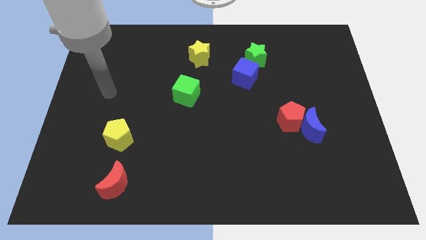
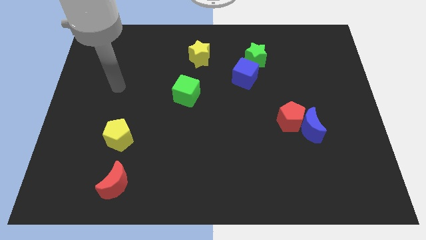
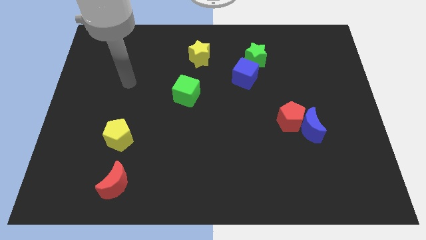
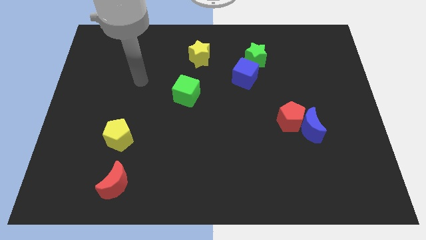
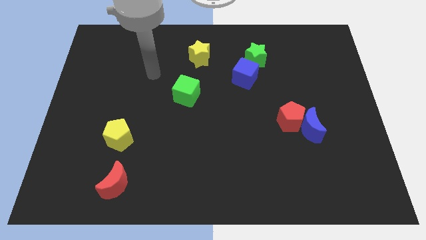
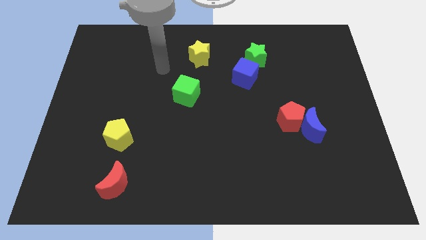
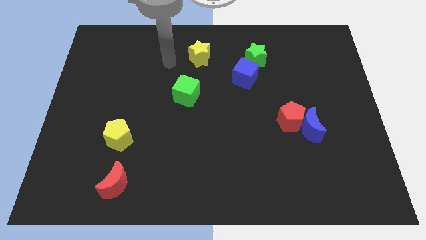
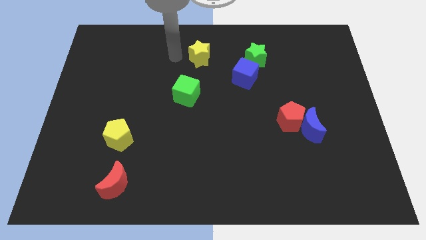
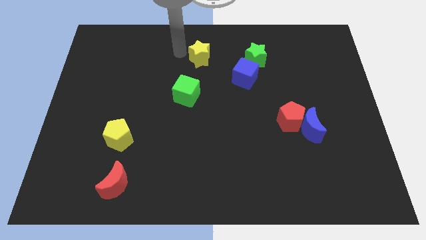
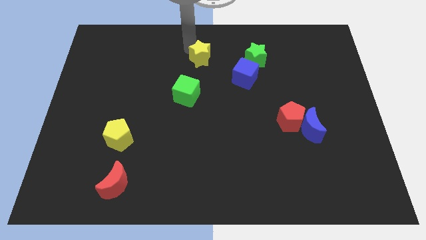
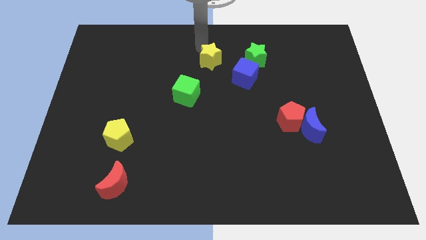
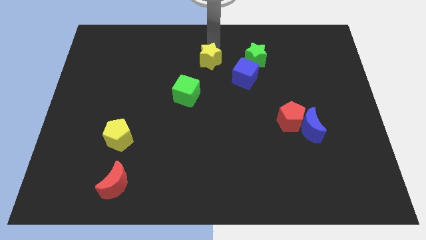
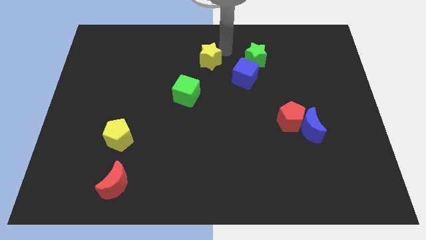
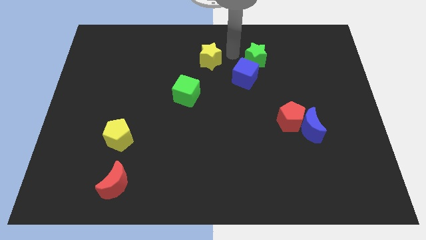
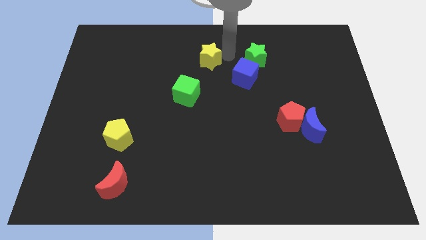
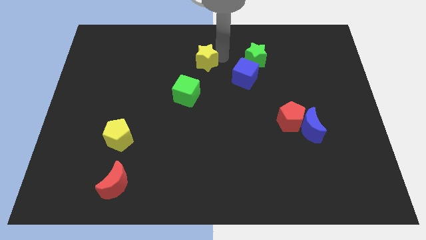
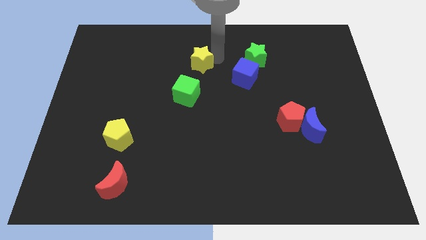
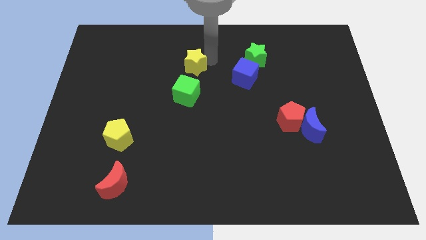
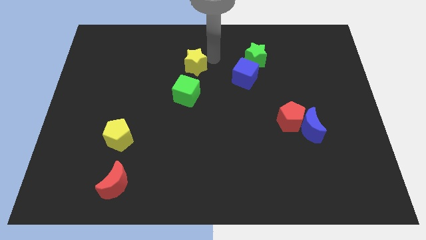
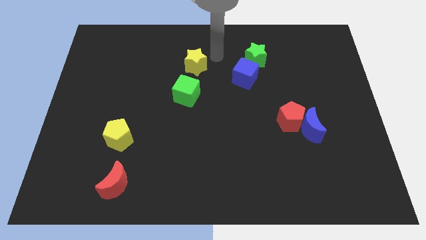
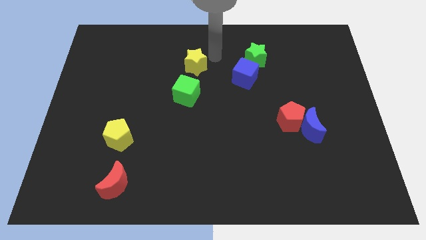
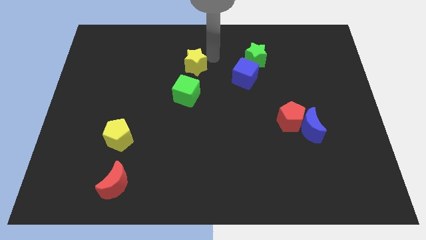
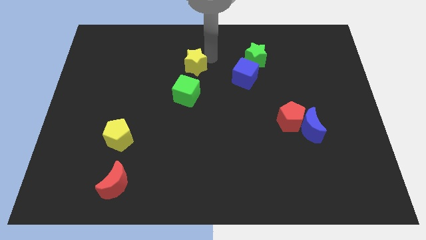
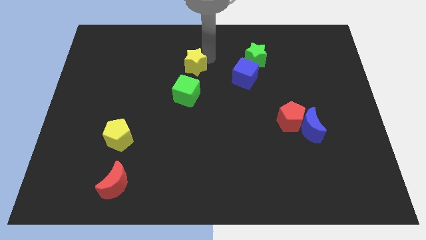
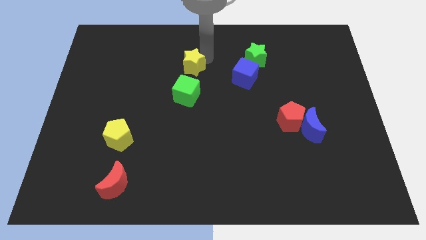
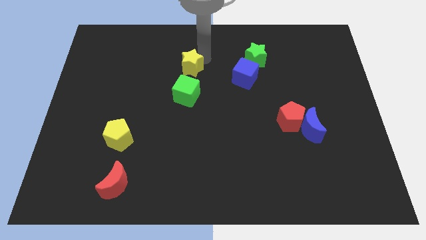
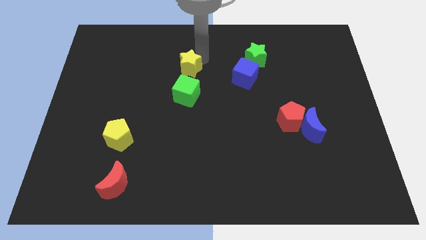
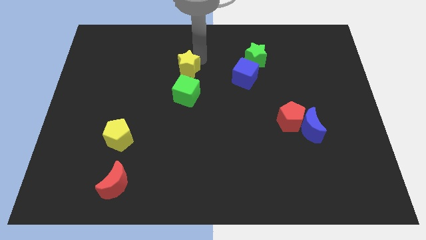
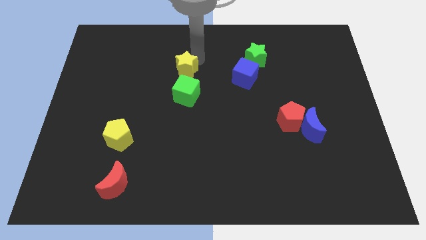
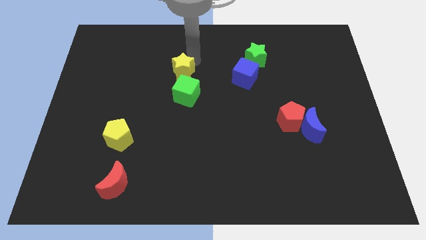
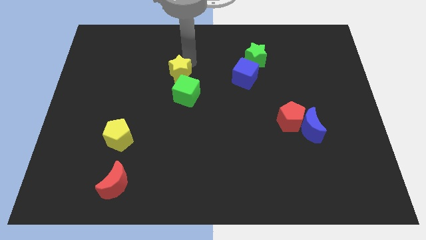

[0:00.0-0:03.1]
slightly push the yellow star diagonally down and left

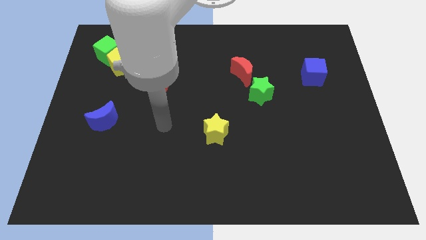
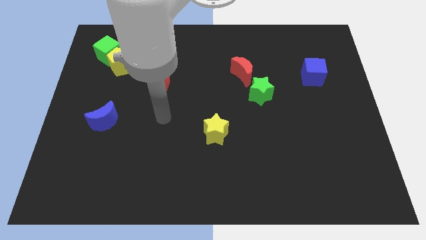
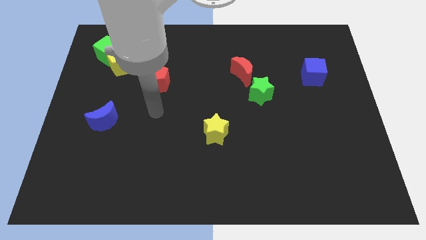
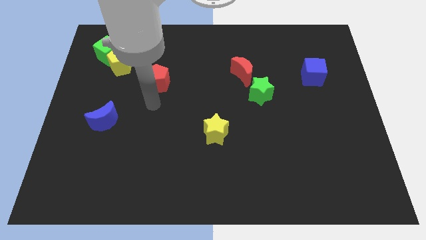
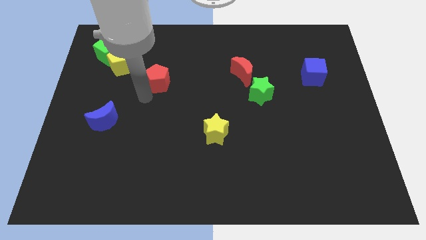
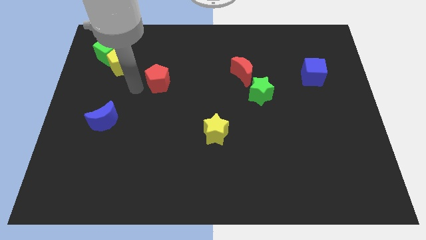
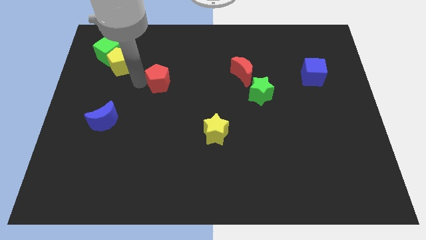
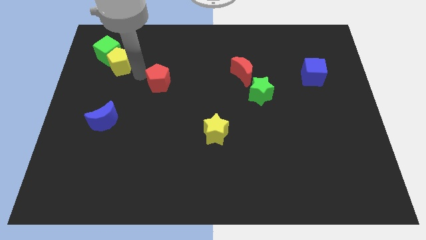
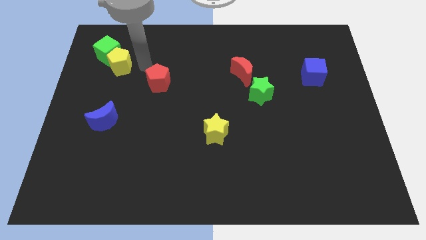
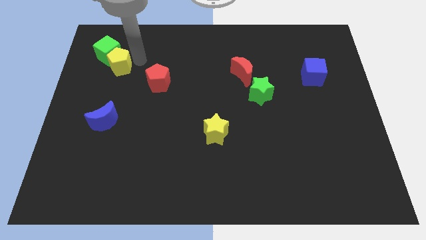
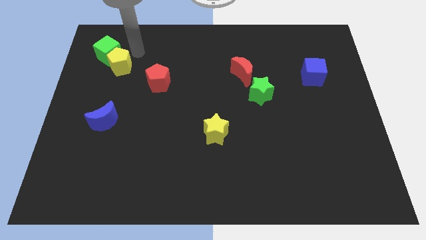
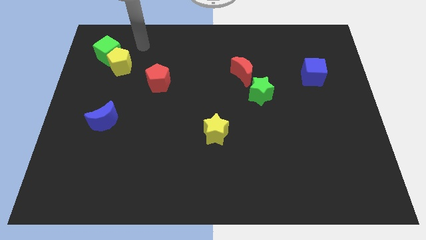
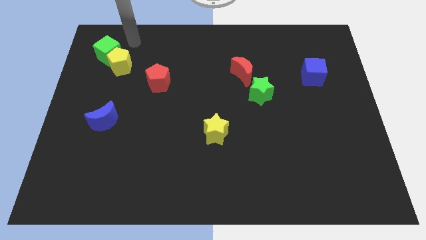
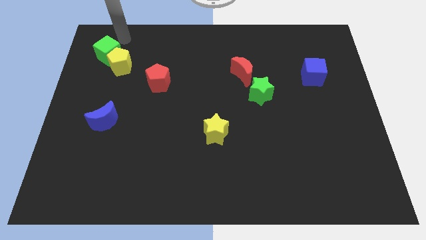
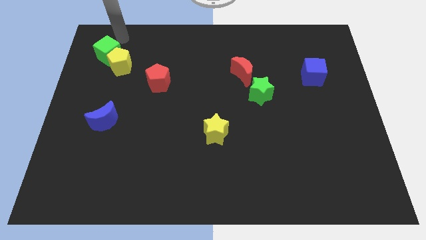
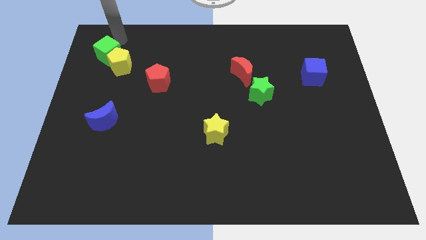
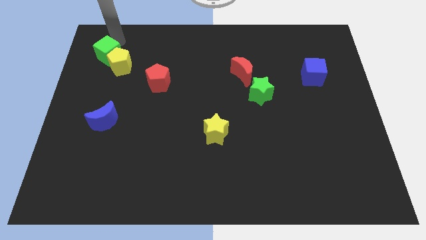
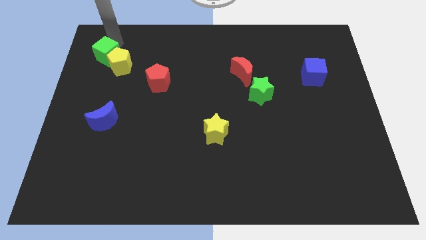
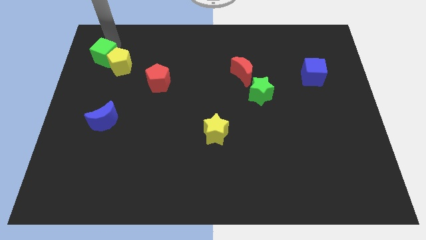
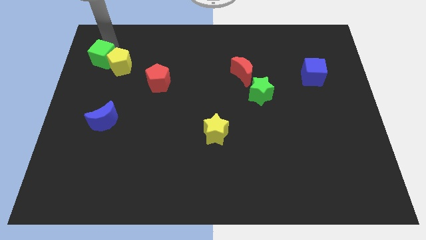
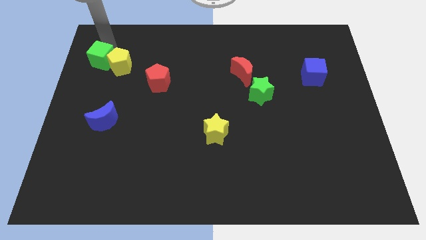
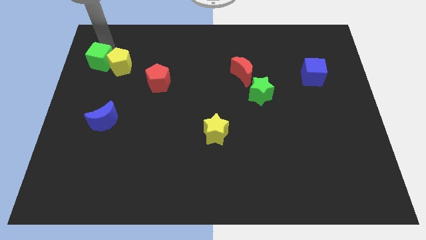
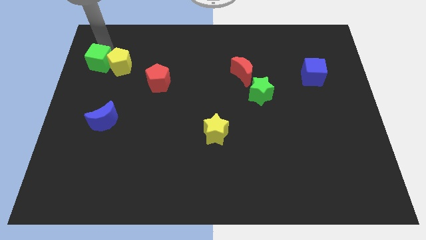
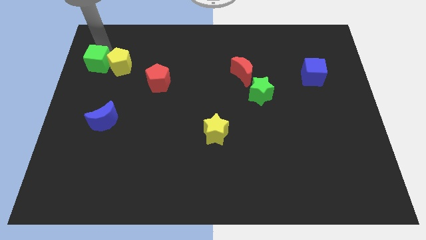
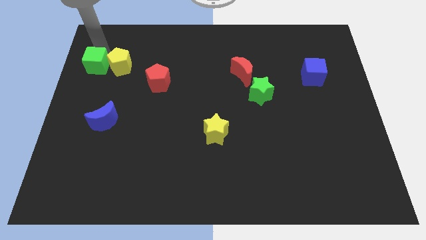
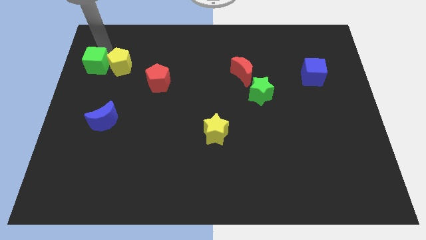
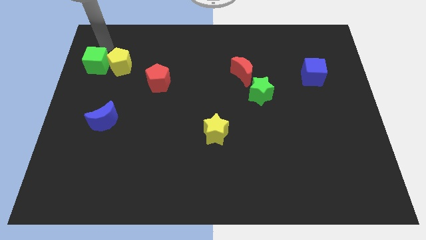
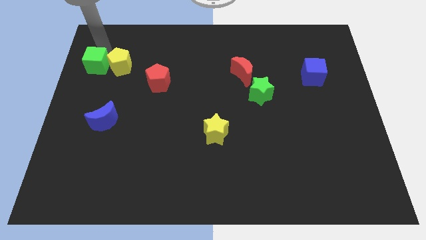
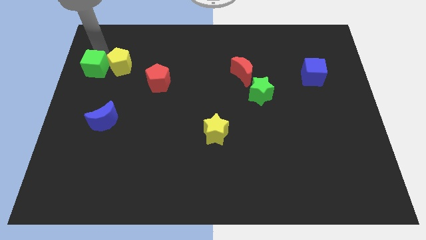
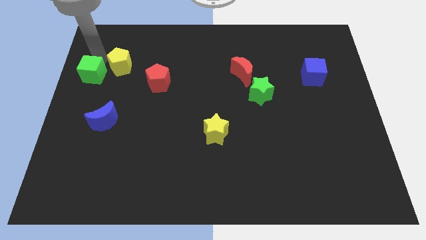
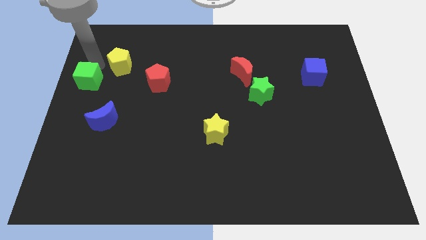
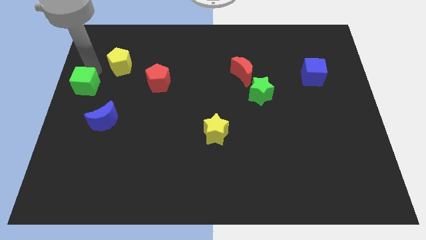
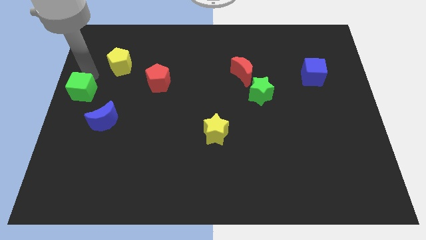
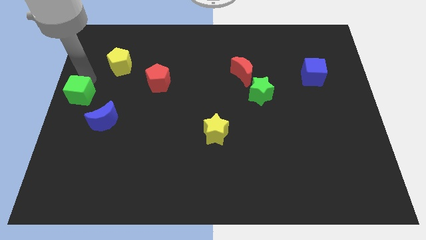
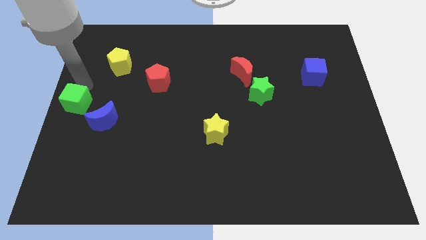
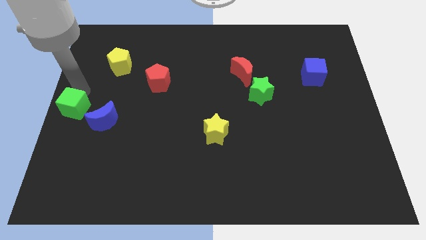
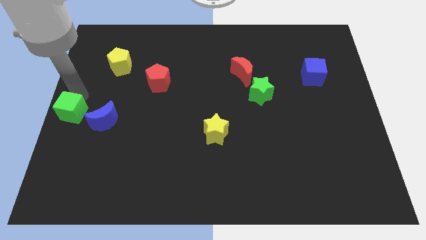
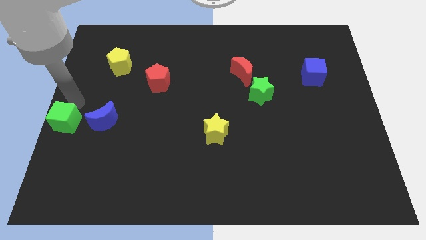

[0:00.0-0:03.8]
push the green cube downwards

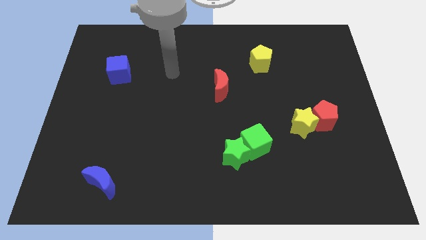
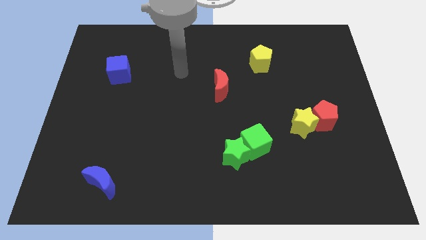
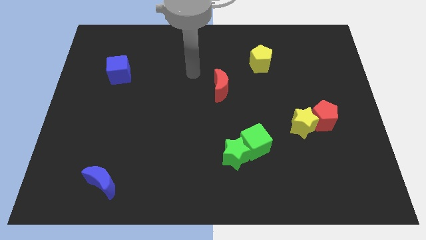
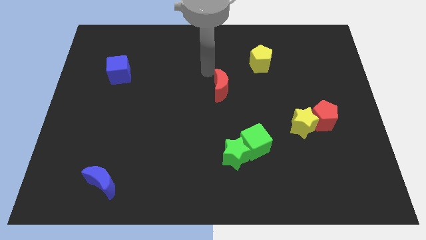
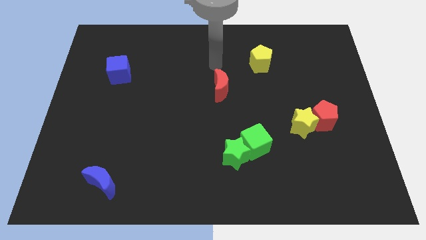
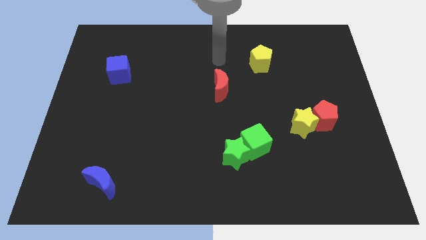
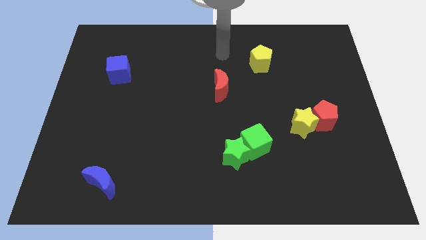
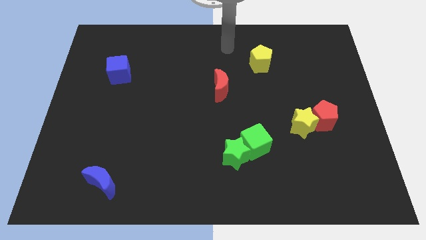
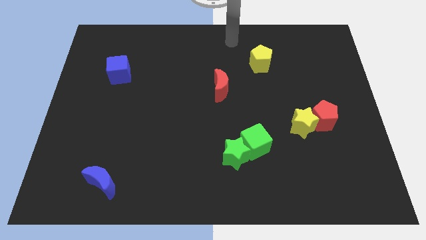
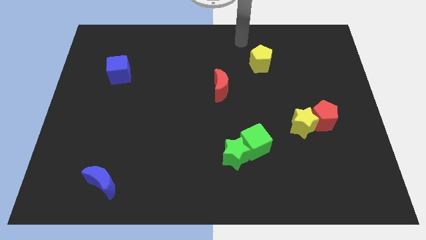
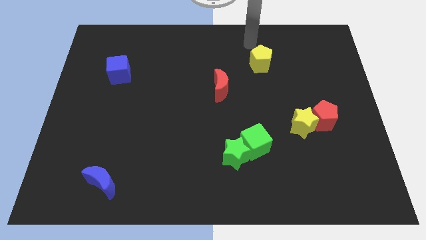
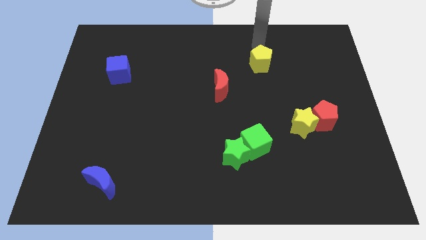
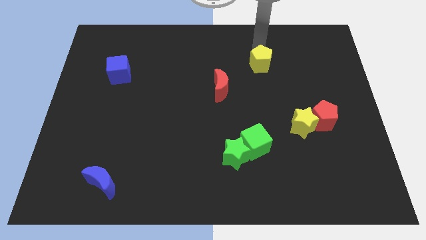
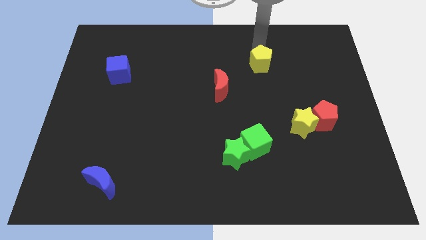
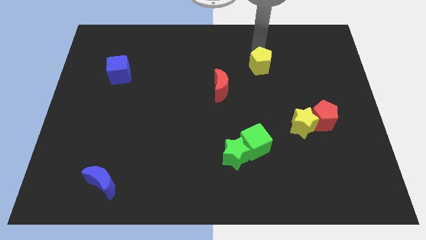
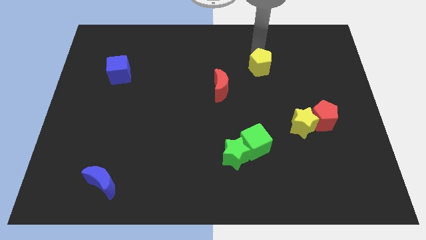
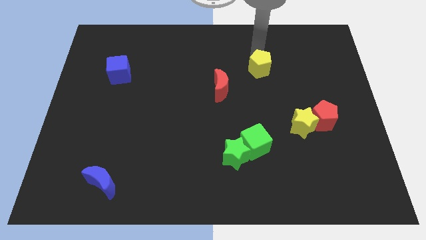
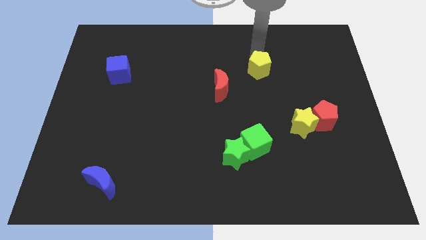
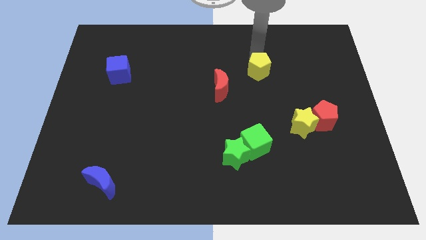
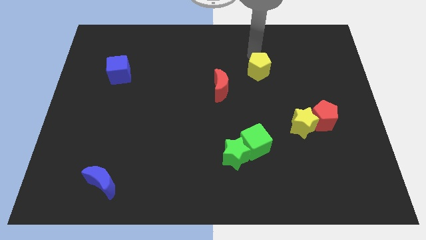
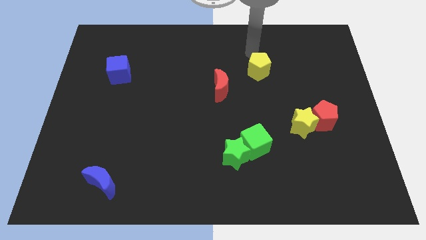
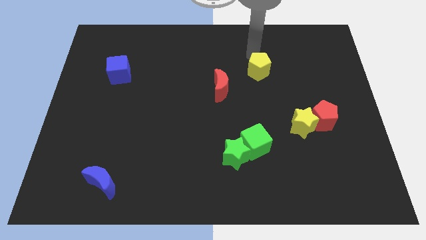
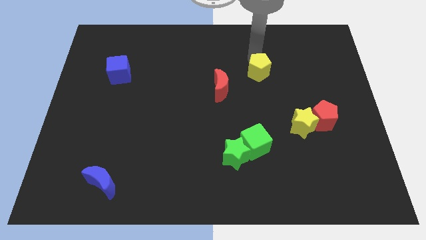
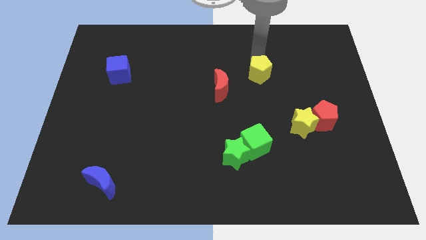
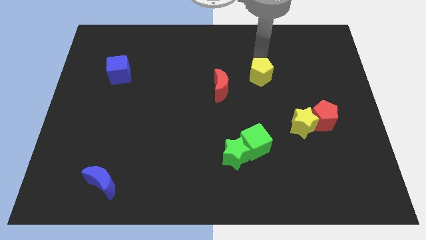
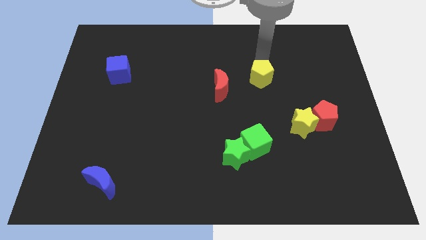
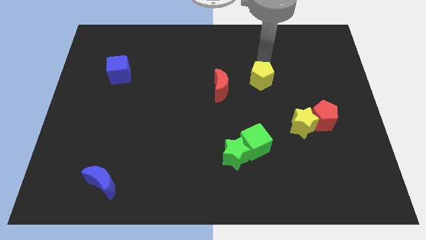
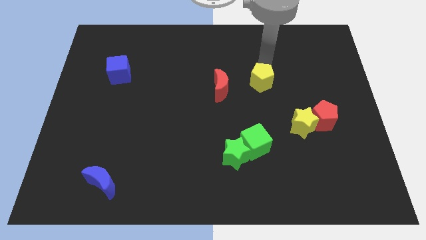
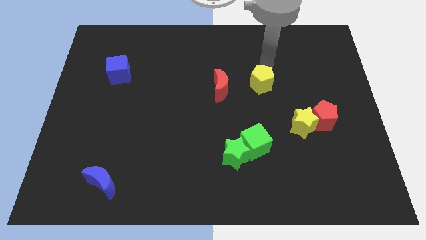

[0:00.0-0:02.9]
slightly move the yellow pentagon downwards
